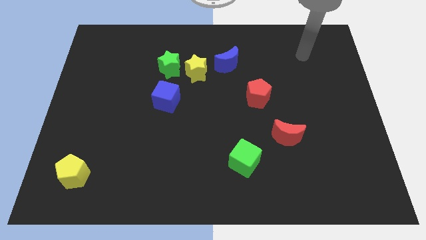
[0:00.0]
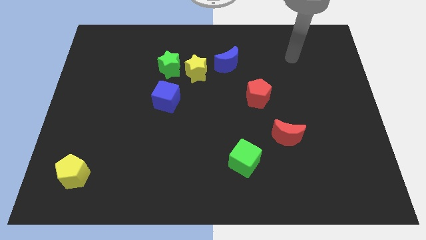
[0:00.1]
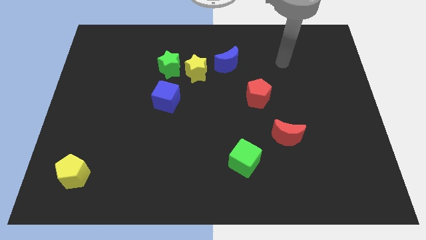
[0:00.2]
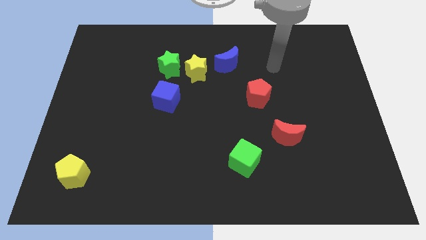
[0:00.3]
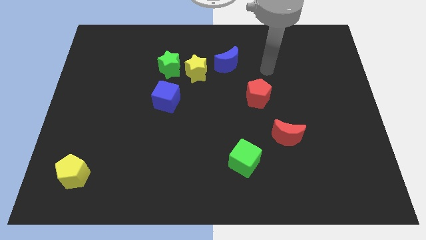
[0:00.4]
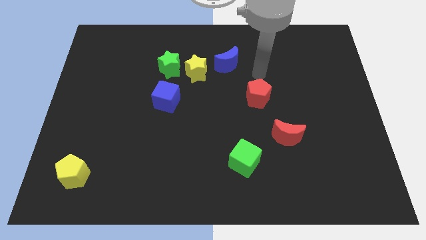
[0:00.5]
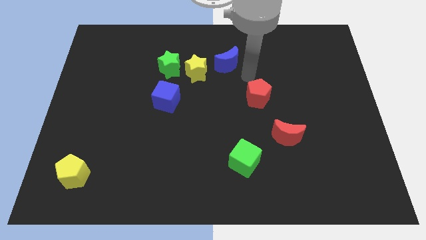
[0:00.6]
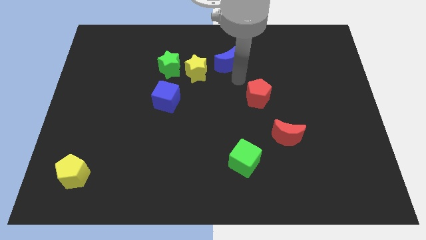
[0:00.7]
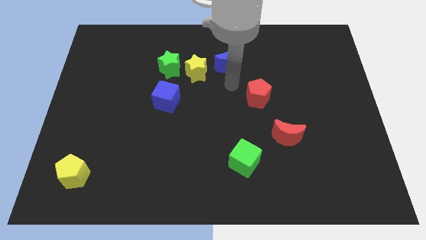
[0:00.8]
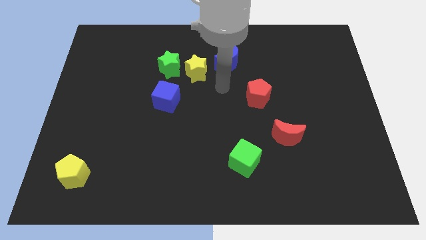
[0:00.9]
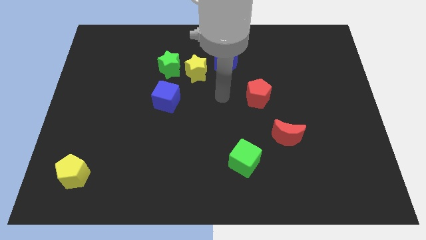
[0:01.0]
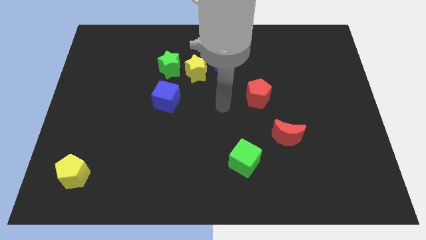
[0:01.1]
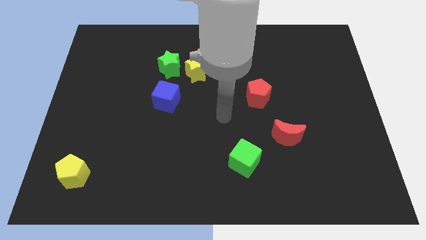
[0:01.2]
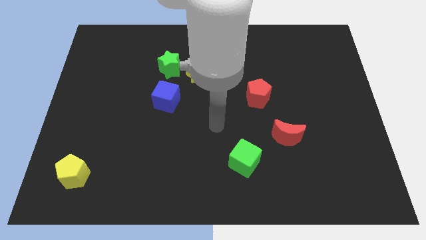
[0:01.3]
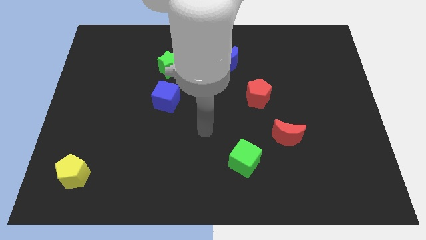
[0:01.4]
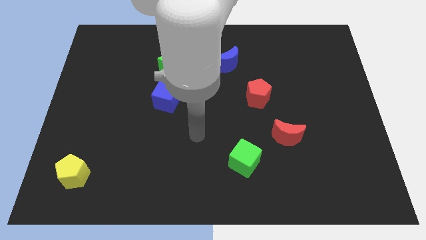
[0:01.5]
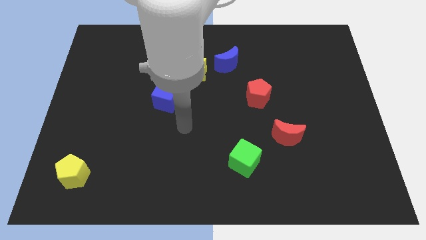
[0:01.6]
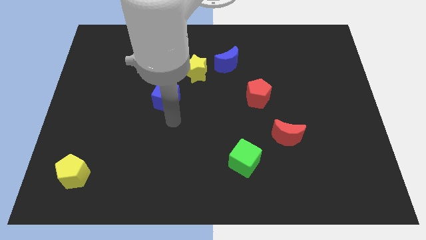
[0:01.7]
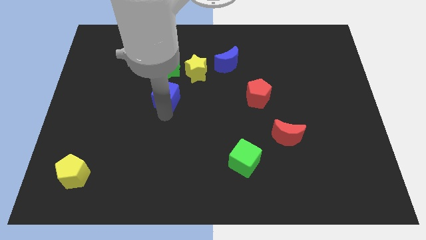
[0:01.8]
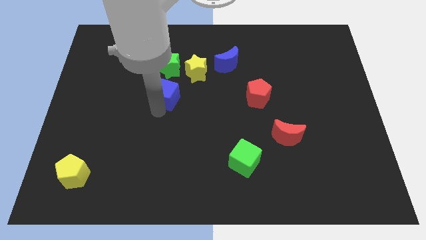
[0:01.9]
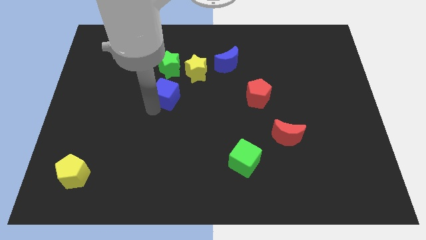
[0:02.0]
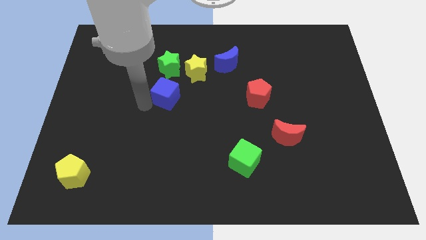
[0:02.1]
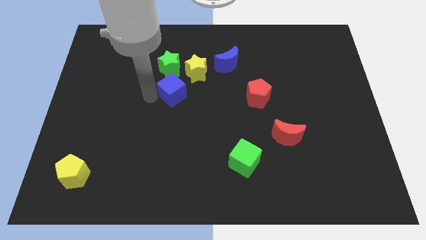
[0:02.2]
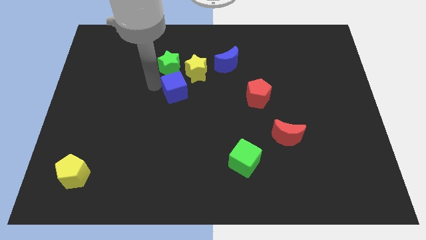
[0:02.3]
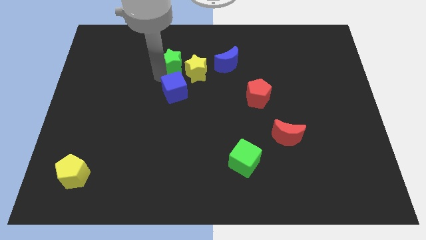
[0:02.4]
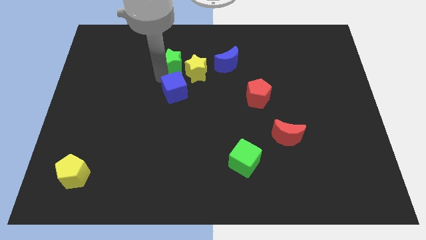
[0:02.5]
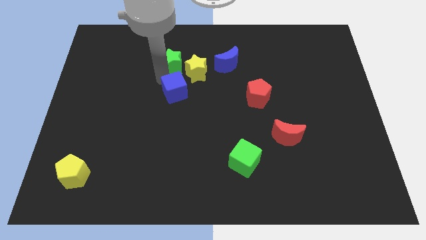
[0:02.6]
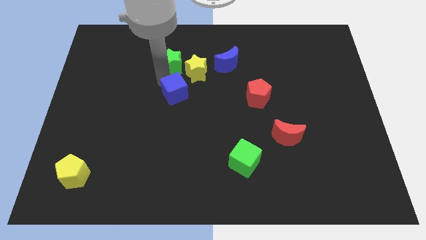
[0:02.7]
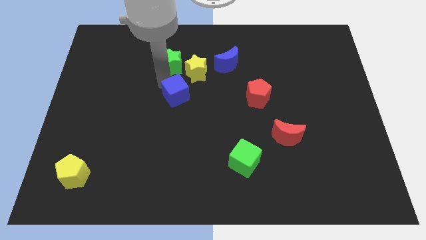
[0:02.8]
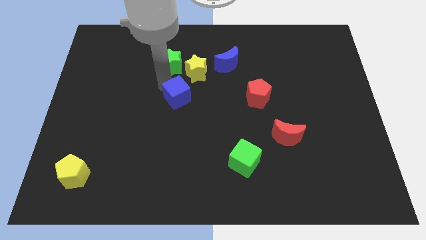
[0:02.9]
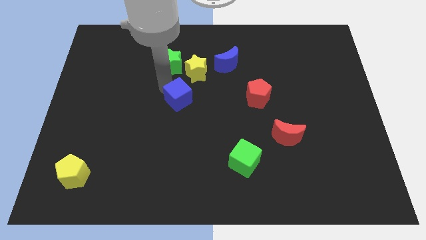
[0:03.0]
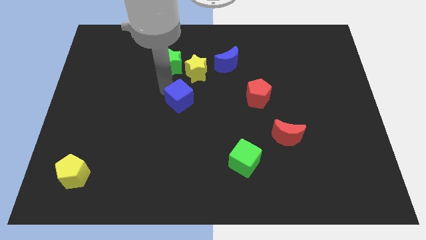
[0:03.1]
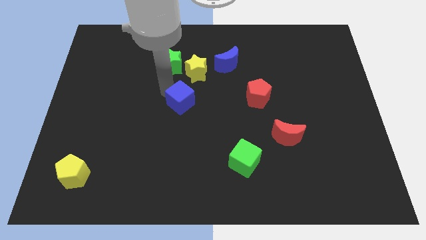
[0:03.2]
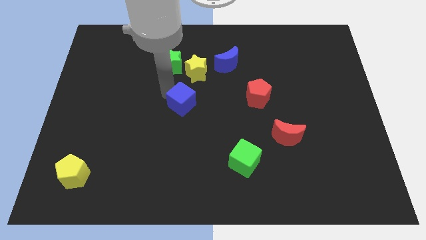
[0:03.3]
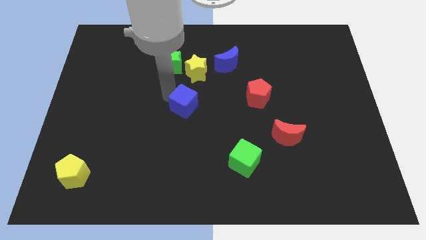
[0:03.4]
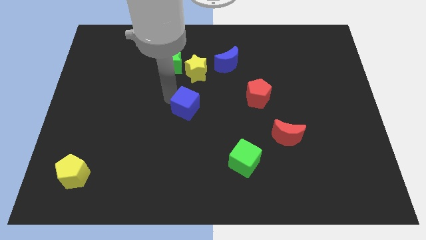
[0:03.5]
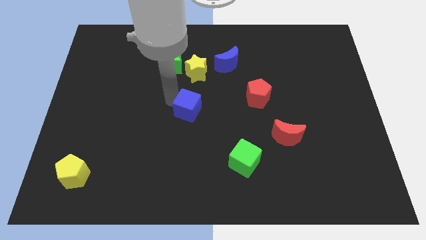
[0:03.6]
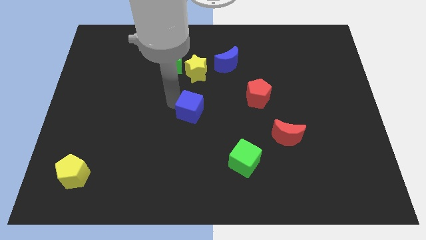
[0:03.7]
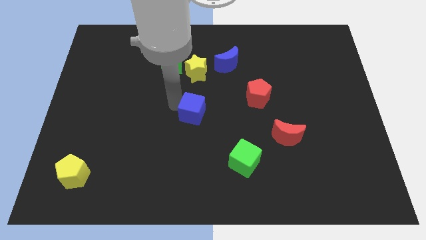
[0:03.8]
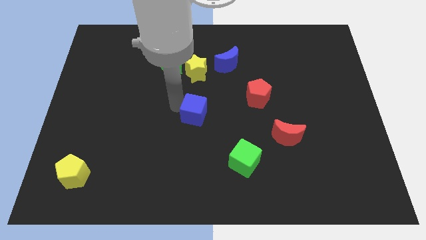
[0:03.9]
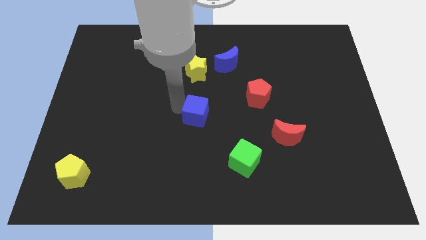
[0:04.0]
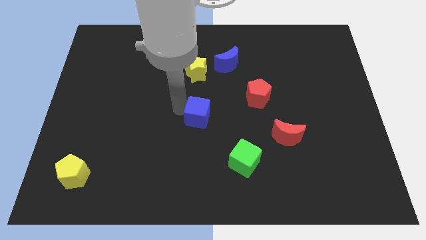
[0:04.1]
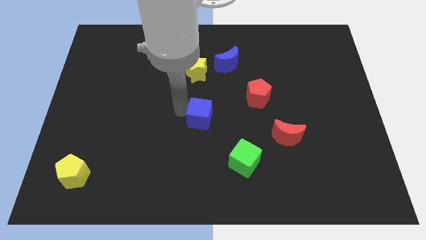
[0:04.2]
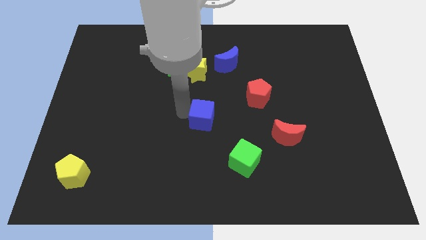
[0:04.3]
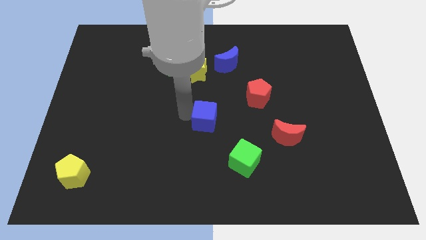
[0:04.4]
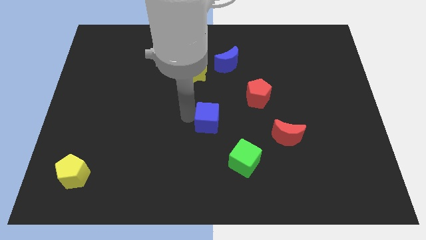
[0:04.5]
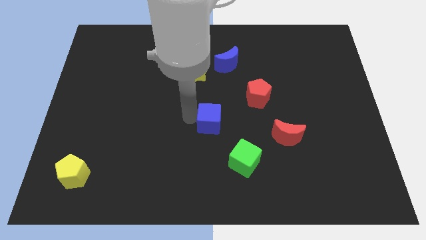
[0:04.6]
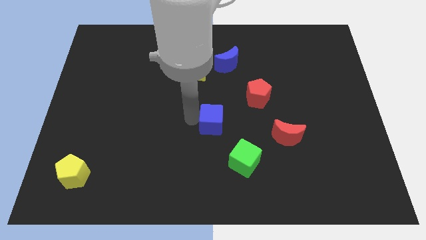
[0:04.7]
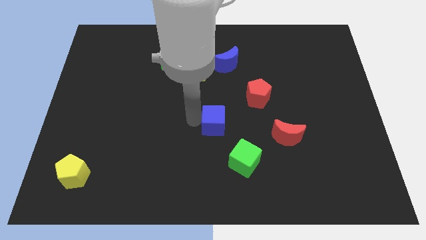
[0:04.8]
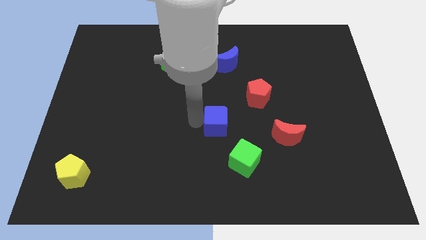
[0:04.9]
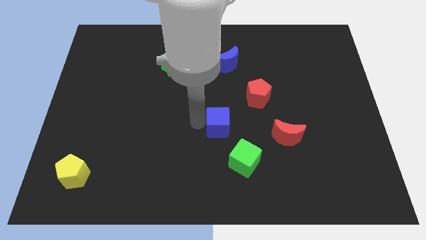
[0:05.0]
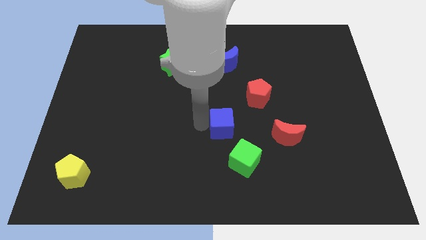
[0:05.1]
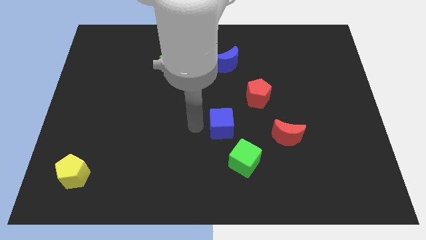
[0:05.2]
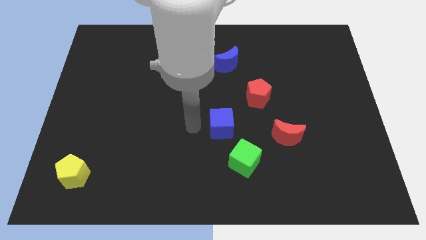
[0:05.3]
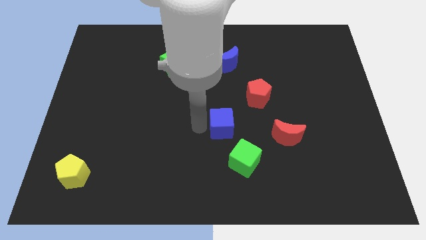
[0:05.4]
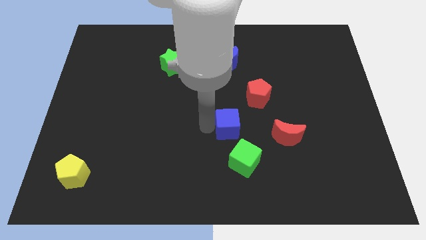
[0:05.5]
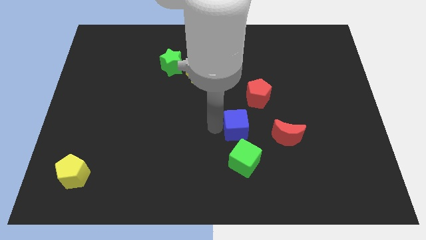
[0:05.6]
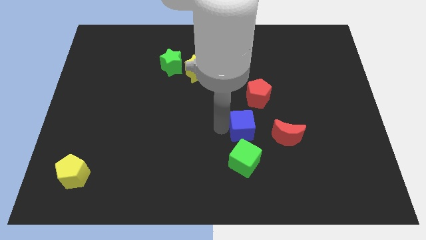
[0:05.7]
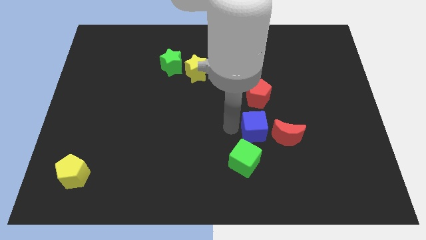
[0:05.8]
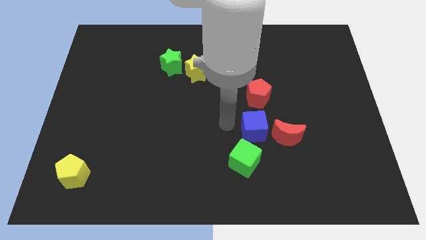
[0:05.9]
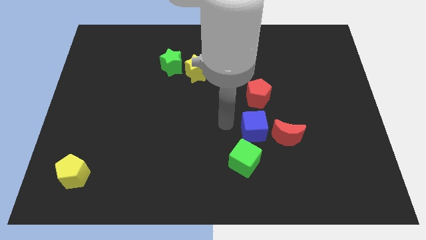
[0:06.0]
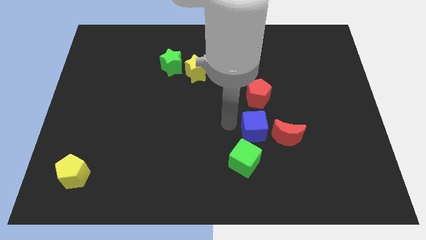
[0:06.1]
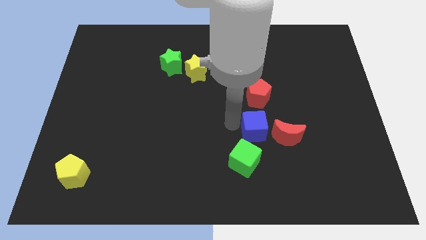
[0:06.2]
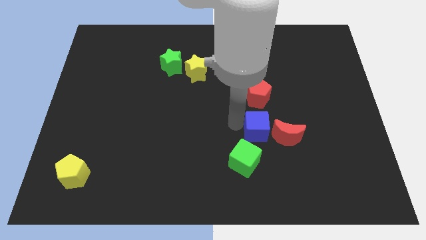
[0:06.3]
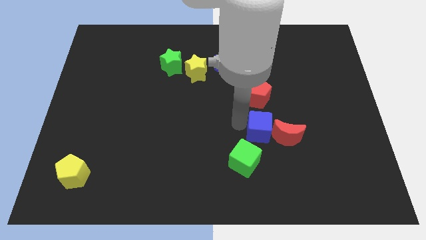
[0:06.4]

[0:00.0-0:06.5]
slide the blue cube close to the red moon

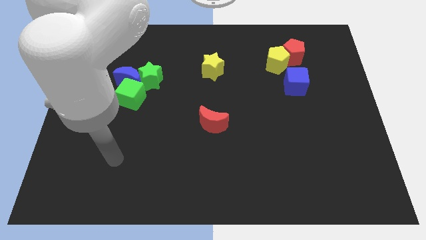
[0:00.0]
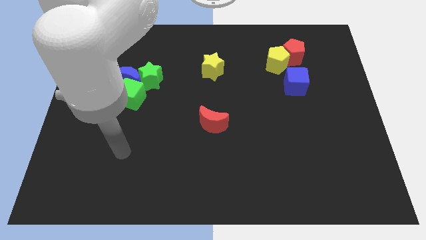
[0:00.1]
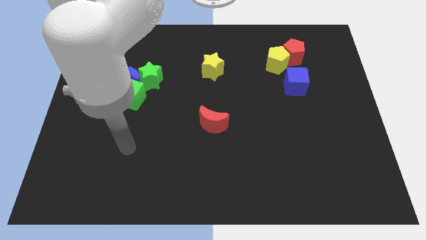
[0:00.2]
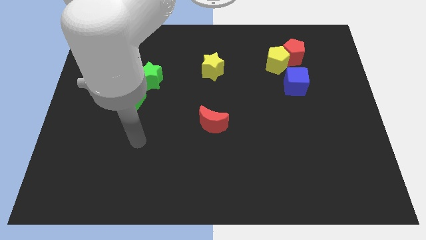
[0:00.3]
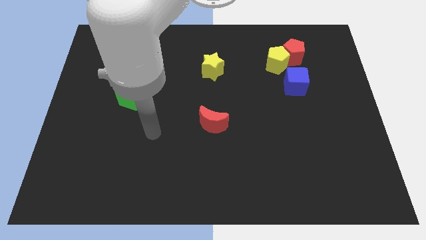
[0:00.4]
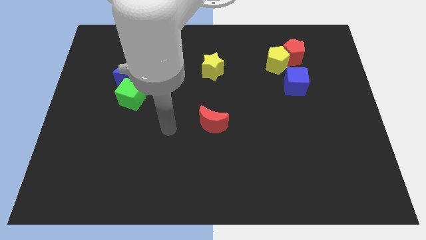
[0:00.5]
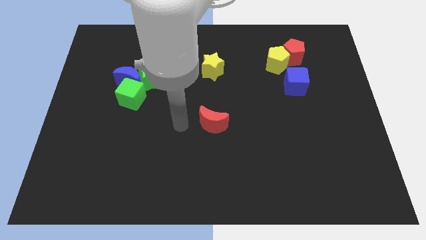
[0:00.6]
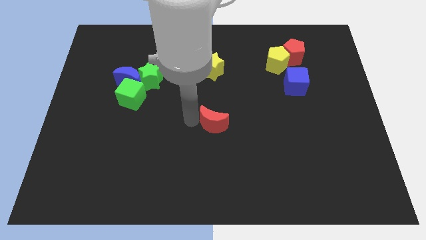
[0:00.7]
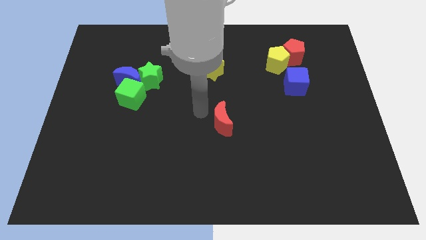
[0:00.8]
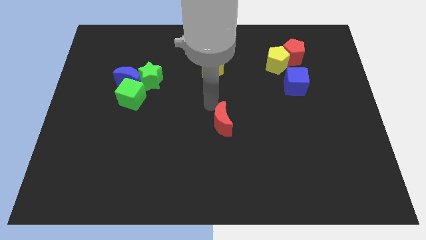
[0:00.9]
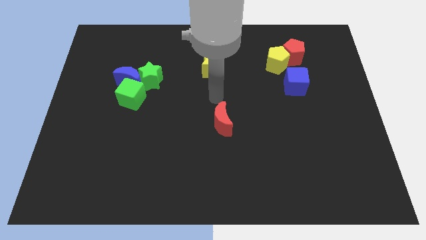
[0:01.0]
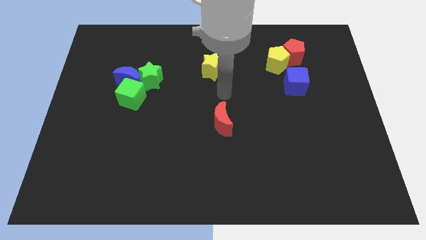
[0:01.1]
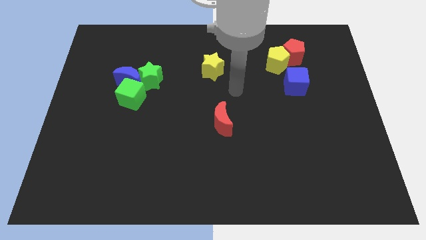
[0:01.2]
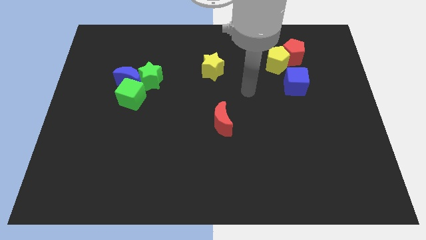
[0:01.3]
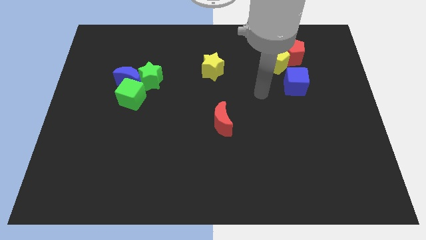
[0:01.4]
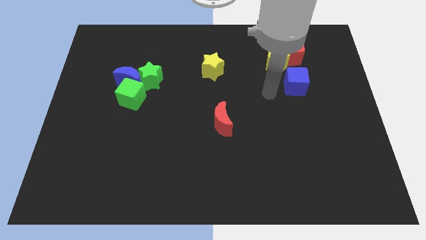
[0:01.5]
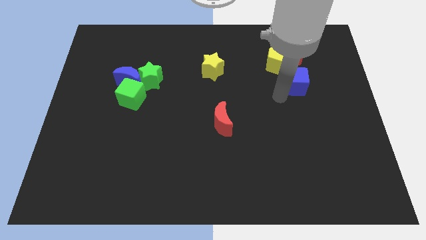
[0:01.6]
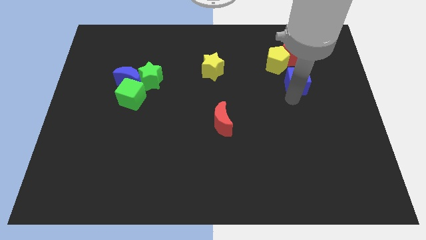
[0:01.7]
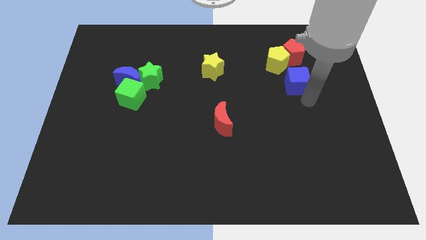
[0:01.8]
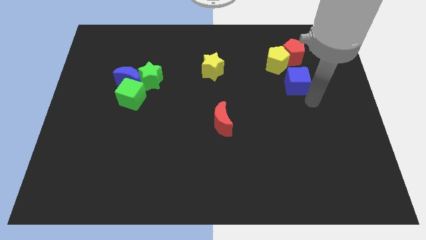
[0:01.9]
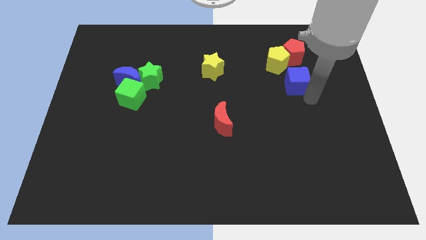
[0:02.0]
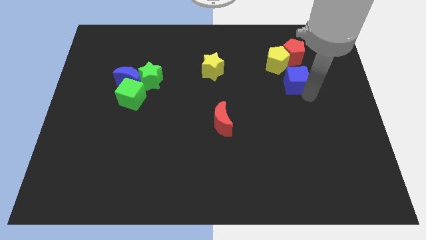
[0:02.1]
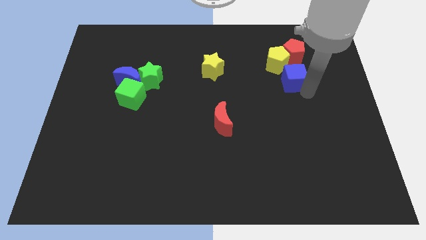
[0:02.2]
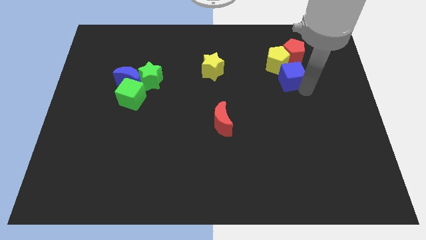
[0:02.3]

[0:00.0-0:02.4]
push the blue cube next to the yellow pentagon
